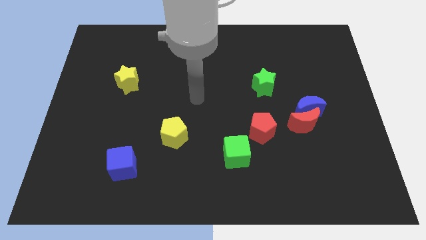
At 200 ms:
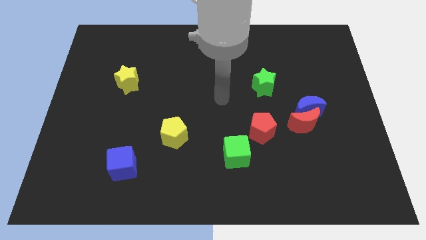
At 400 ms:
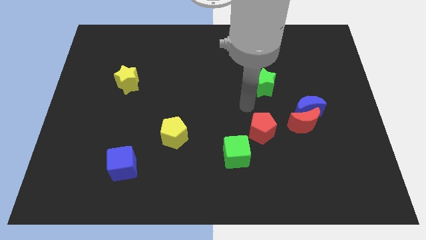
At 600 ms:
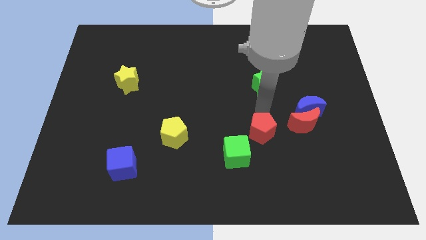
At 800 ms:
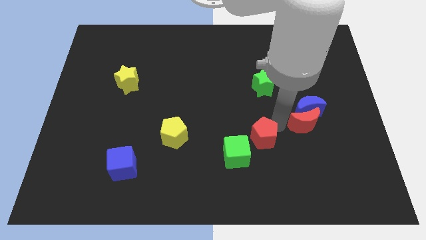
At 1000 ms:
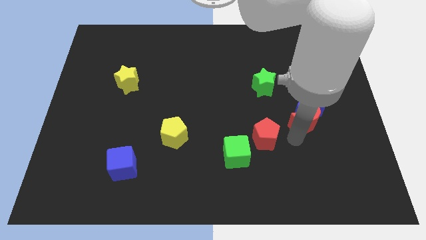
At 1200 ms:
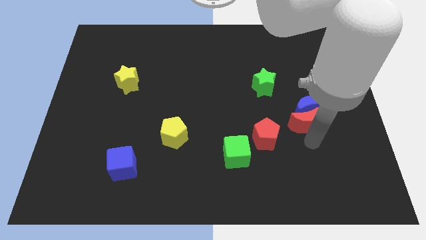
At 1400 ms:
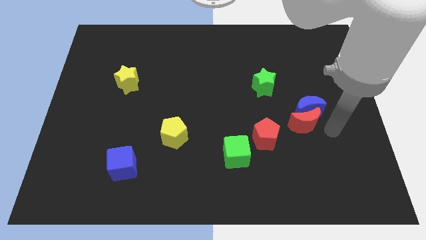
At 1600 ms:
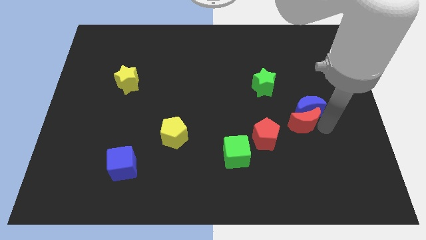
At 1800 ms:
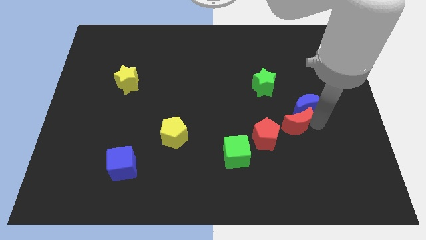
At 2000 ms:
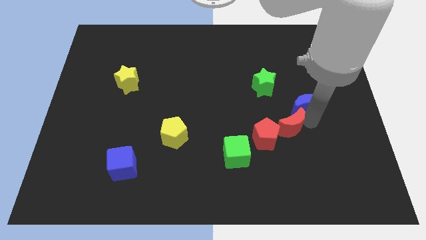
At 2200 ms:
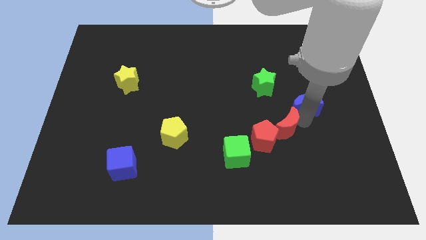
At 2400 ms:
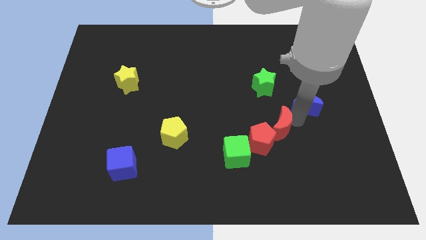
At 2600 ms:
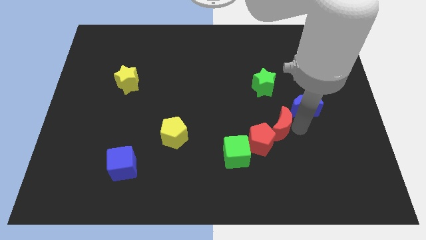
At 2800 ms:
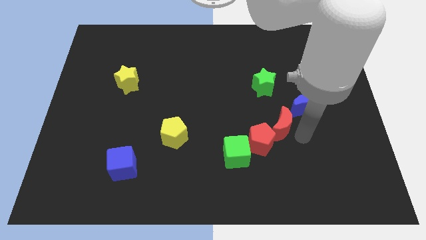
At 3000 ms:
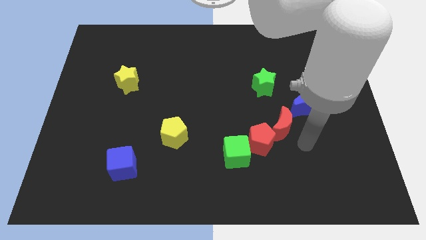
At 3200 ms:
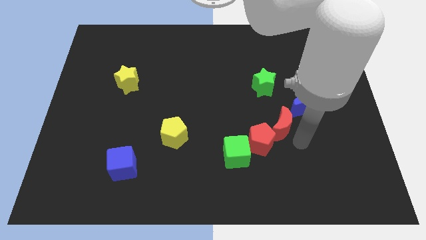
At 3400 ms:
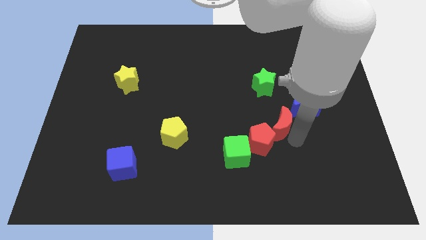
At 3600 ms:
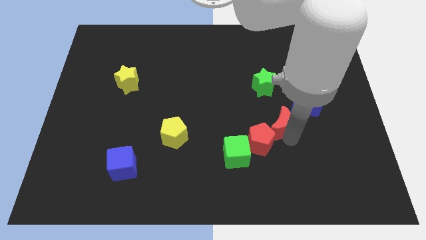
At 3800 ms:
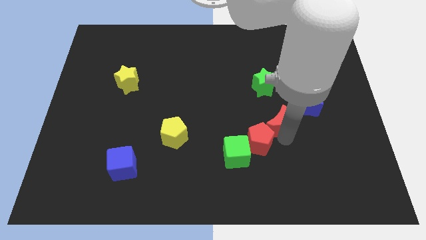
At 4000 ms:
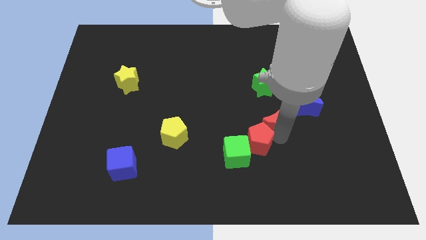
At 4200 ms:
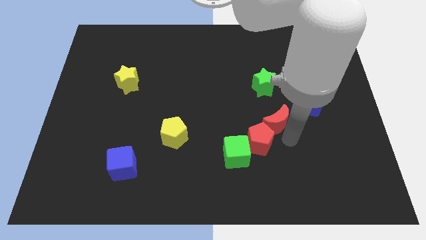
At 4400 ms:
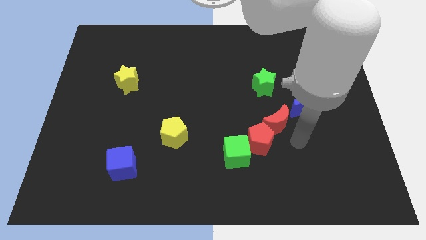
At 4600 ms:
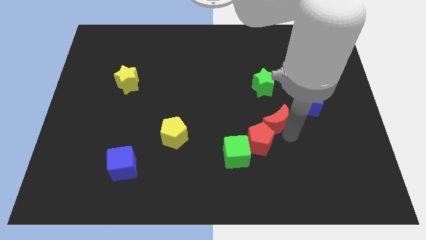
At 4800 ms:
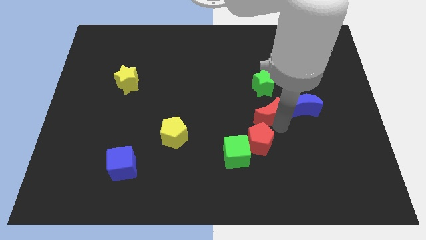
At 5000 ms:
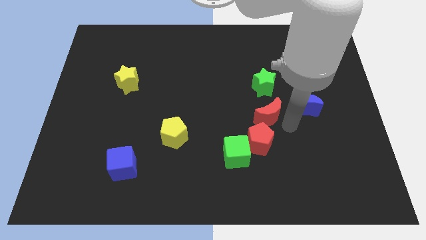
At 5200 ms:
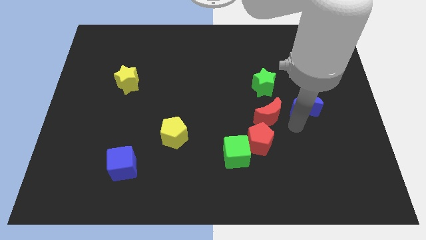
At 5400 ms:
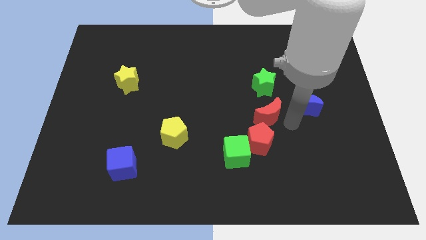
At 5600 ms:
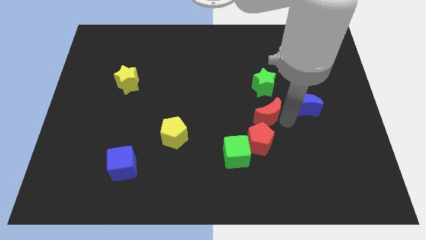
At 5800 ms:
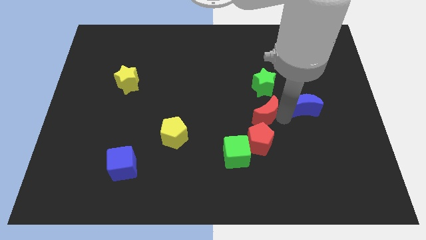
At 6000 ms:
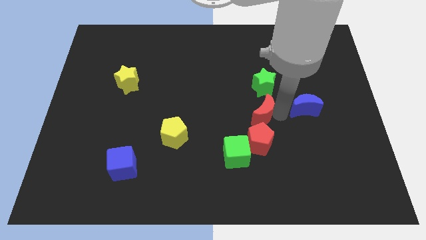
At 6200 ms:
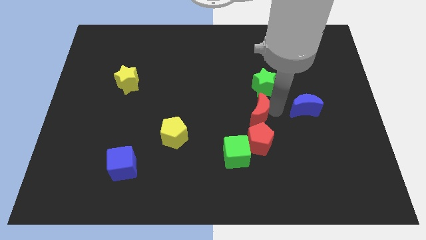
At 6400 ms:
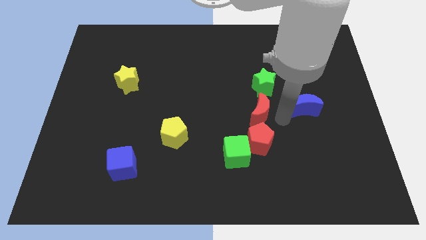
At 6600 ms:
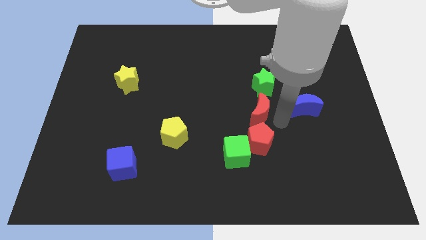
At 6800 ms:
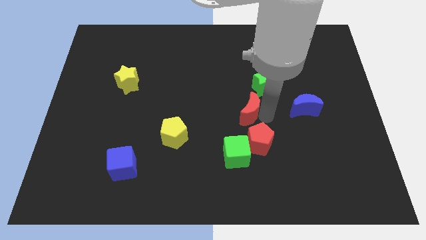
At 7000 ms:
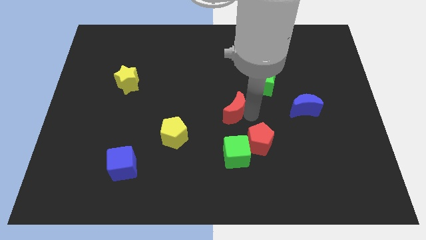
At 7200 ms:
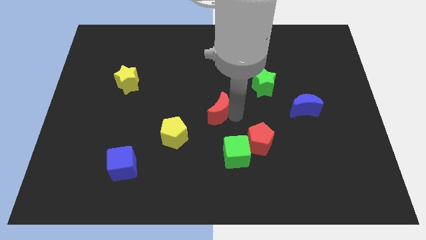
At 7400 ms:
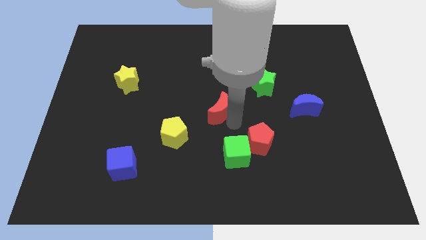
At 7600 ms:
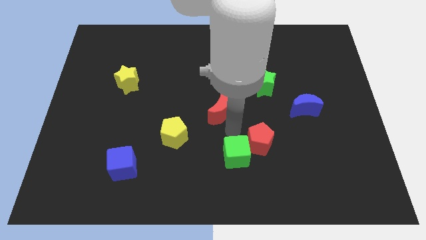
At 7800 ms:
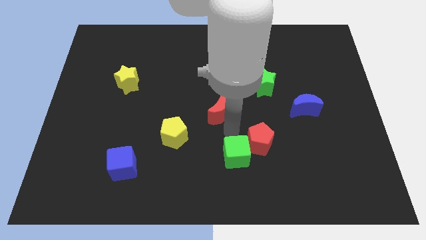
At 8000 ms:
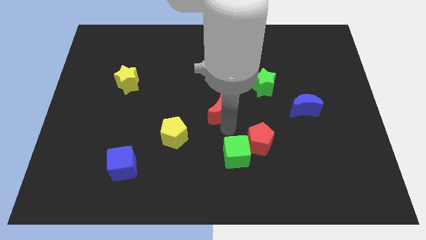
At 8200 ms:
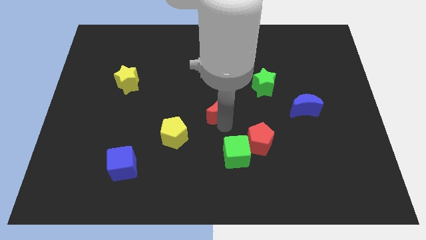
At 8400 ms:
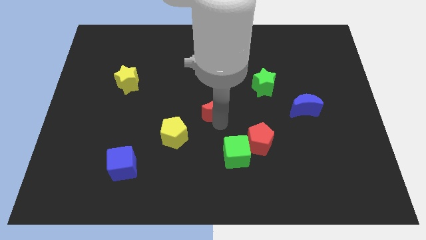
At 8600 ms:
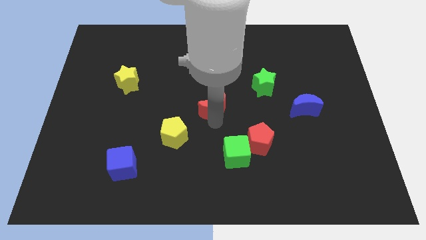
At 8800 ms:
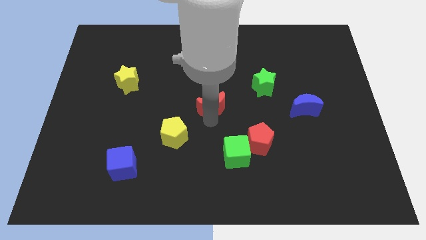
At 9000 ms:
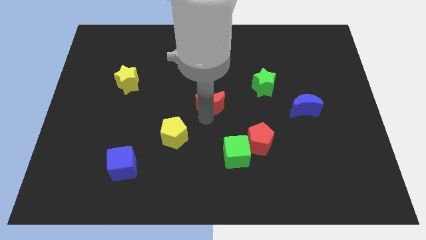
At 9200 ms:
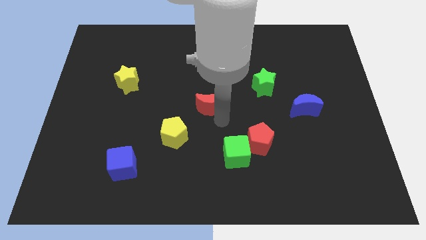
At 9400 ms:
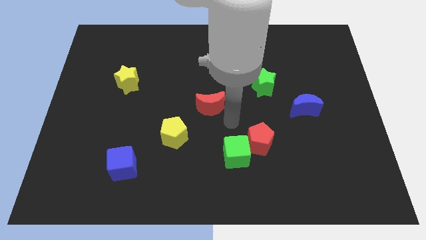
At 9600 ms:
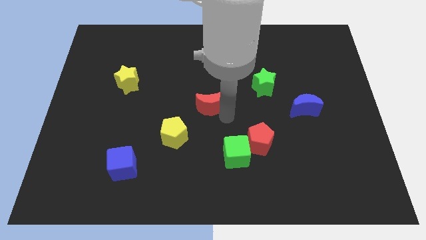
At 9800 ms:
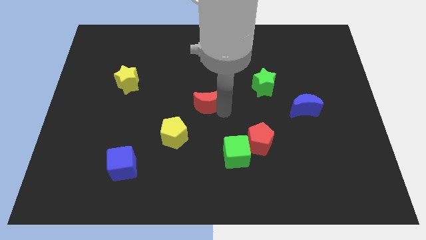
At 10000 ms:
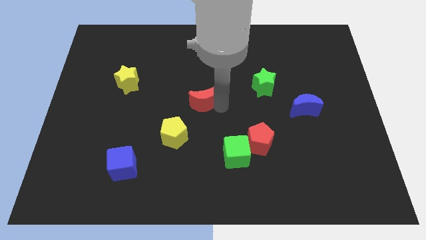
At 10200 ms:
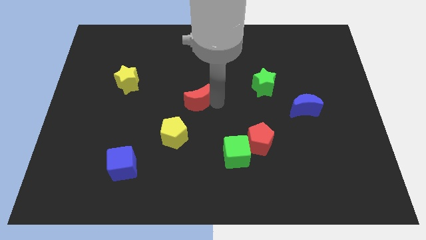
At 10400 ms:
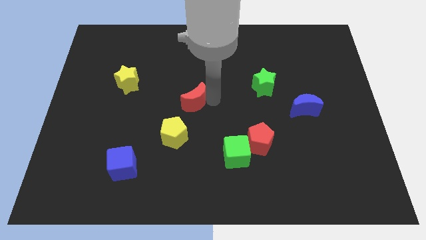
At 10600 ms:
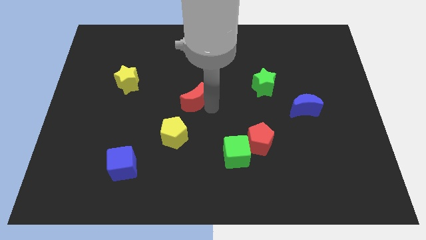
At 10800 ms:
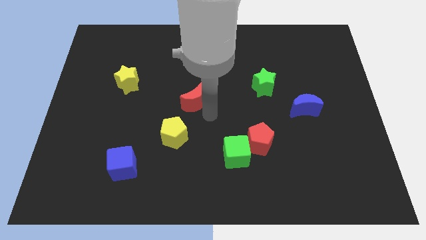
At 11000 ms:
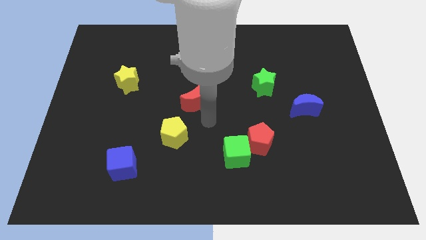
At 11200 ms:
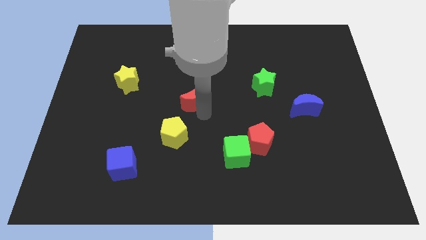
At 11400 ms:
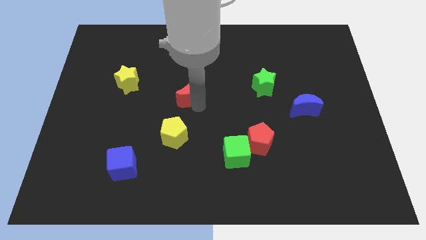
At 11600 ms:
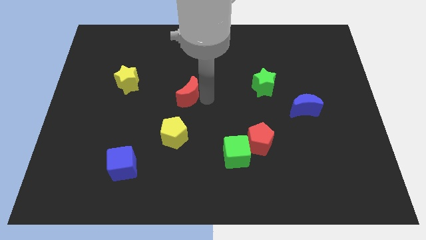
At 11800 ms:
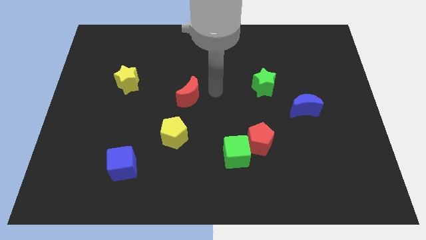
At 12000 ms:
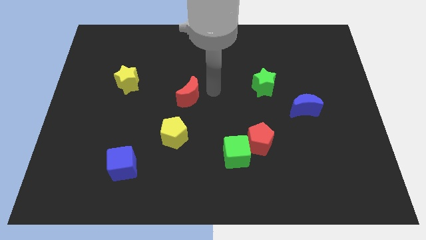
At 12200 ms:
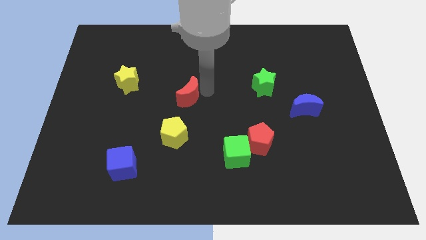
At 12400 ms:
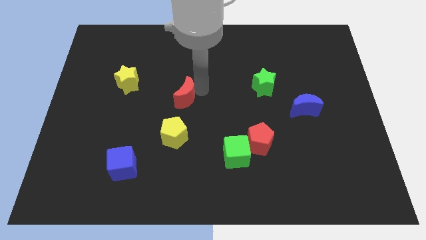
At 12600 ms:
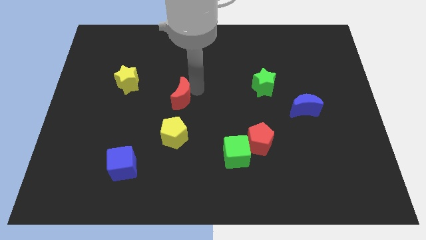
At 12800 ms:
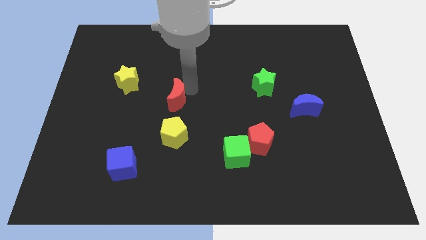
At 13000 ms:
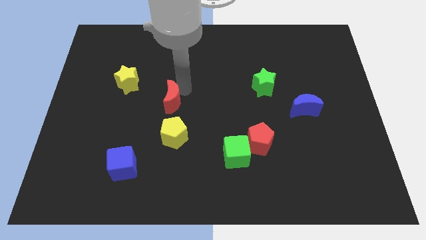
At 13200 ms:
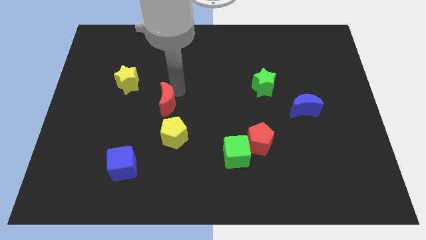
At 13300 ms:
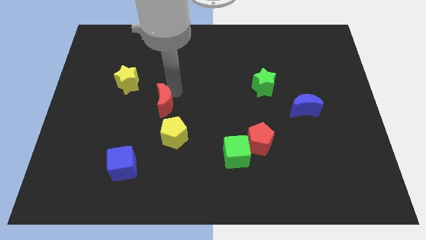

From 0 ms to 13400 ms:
put the red moon diagonally up and to the left of the yellow pentagon

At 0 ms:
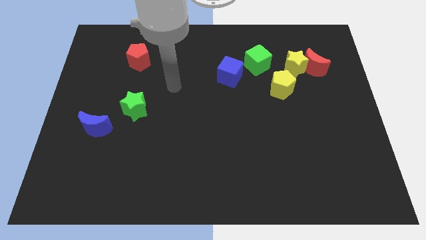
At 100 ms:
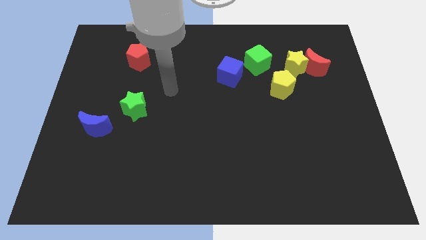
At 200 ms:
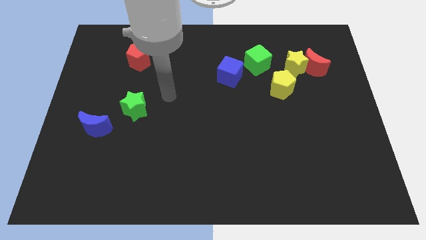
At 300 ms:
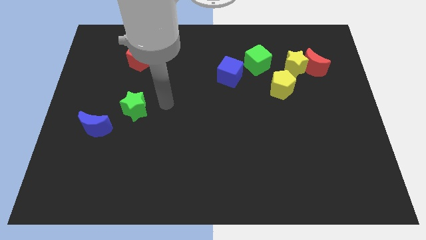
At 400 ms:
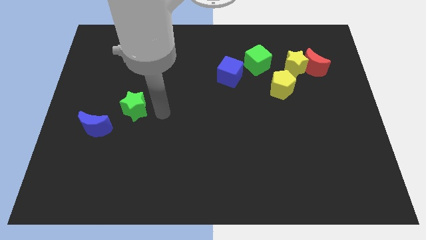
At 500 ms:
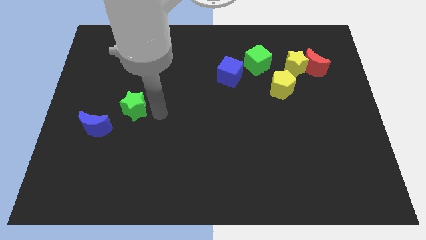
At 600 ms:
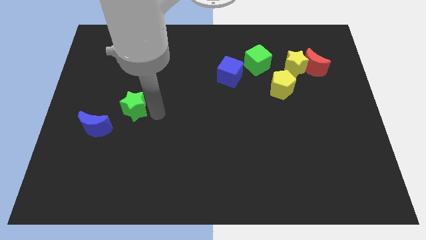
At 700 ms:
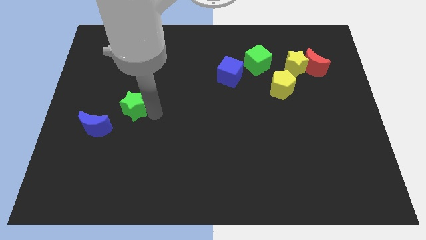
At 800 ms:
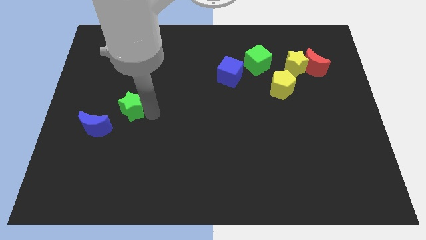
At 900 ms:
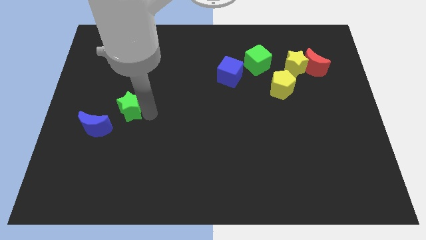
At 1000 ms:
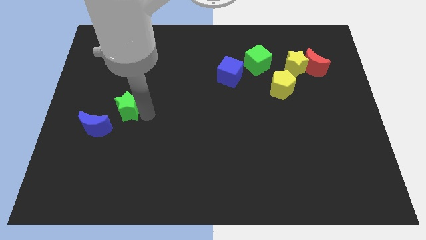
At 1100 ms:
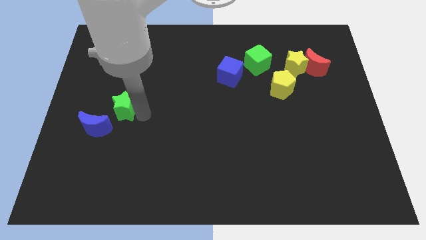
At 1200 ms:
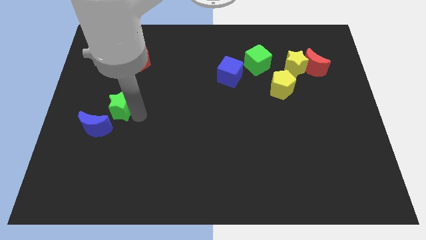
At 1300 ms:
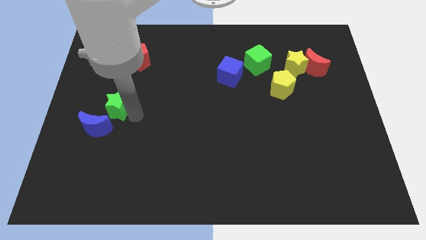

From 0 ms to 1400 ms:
move the green star above the blue moon
